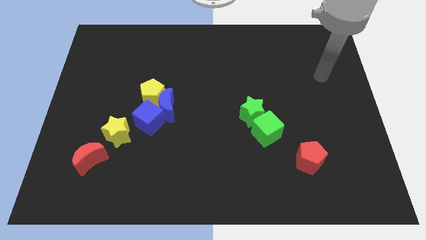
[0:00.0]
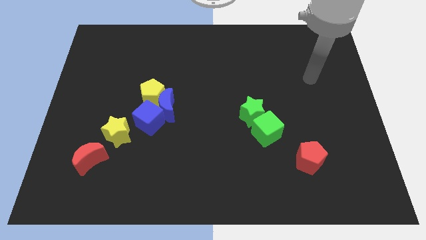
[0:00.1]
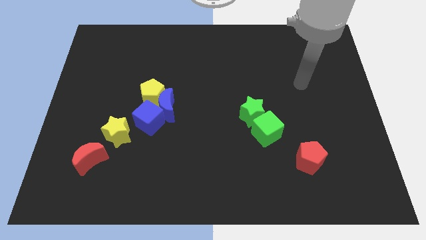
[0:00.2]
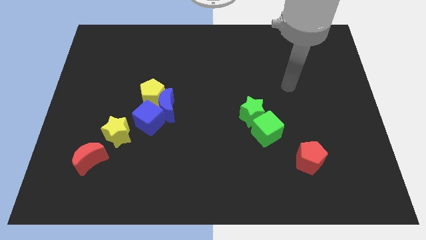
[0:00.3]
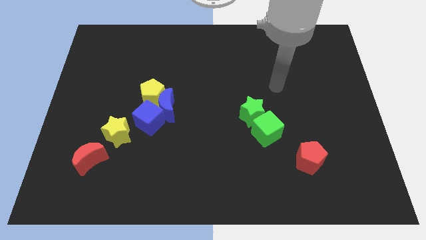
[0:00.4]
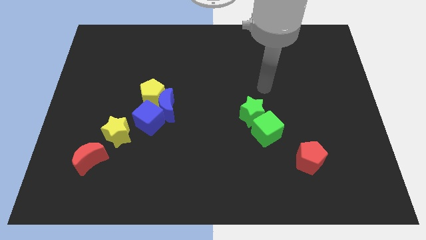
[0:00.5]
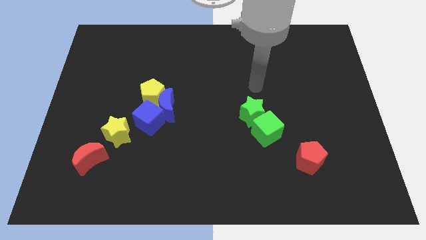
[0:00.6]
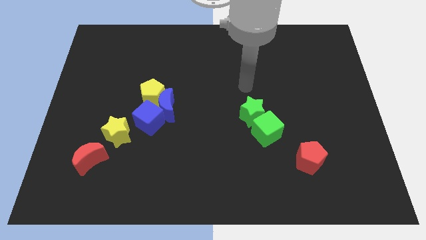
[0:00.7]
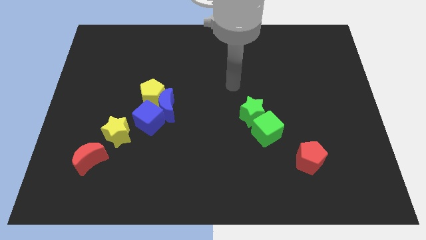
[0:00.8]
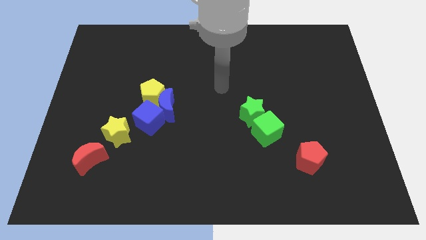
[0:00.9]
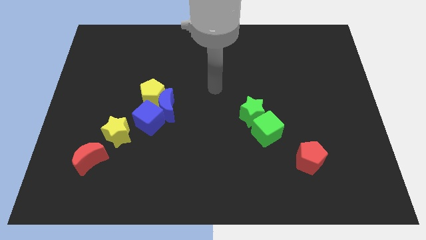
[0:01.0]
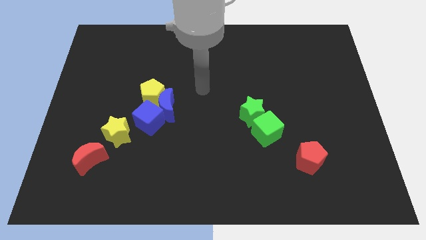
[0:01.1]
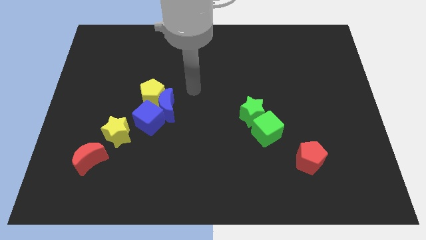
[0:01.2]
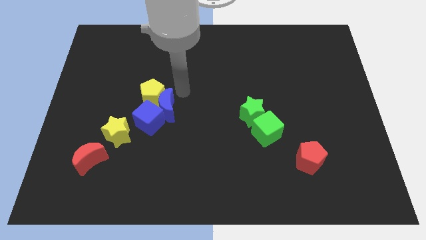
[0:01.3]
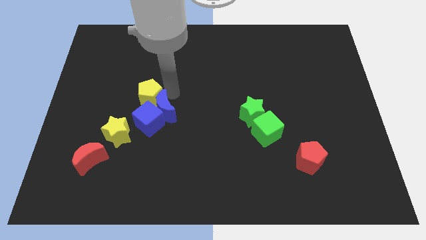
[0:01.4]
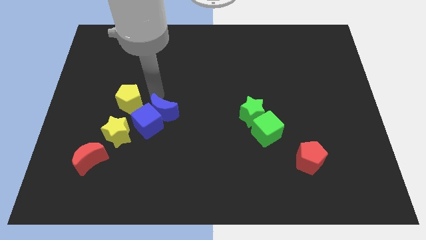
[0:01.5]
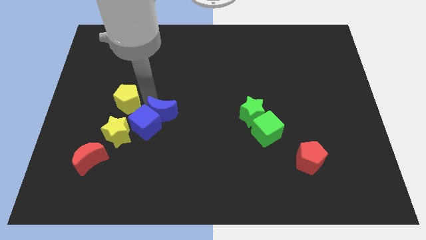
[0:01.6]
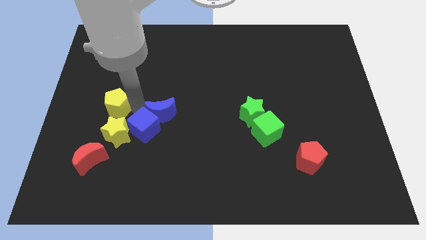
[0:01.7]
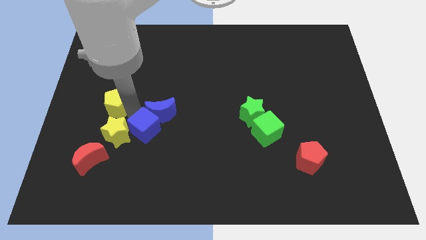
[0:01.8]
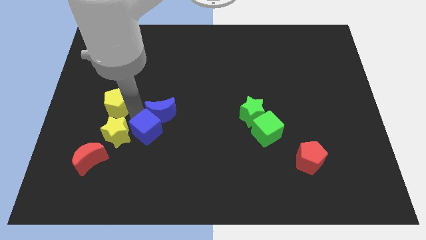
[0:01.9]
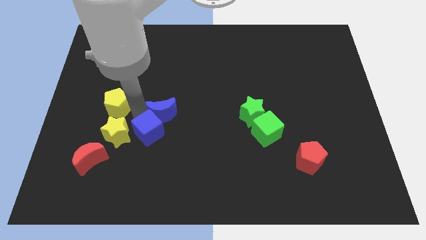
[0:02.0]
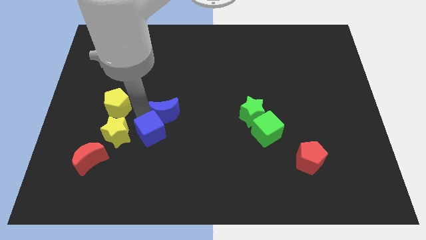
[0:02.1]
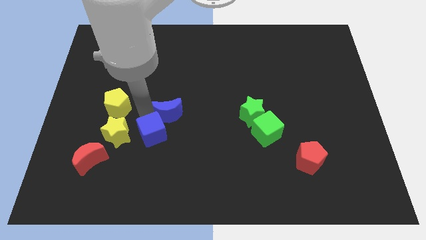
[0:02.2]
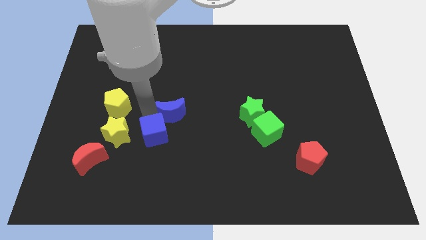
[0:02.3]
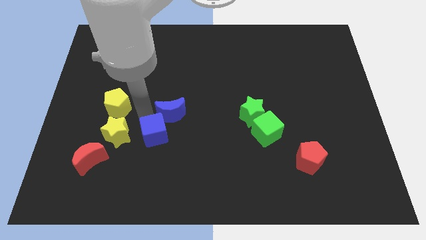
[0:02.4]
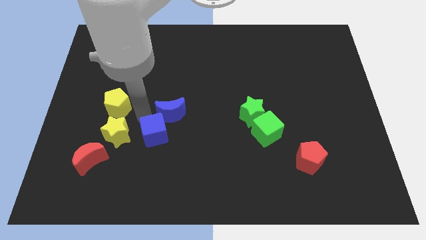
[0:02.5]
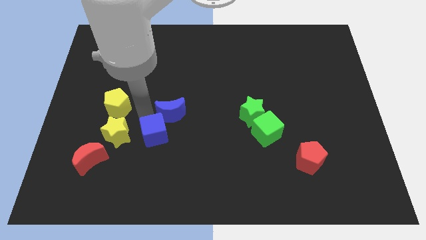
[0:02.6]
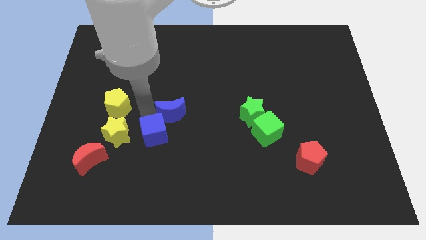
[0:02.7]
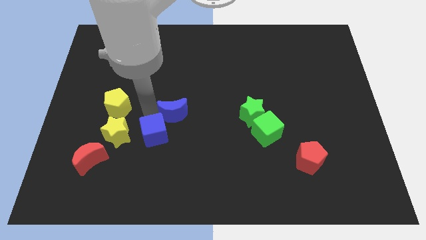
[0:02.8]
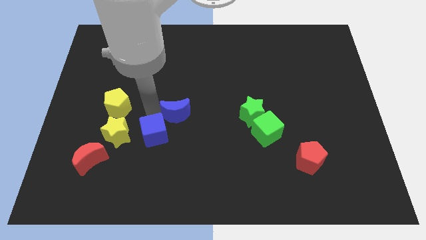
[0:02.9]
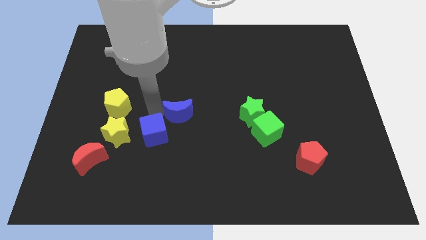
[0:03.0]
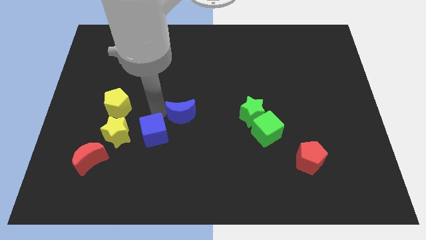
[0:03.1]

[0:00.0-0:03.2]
pull the blue moon apart from the blue cube and yellow pentagon

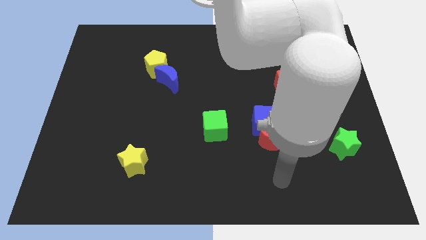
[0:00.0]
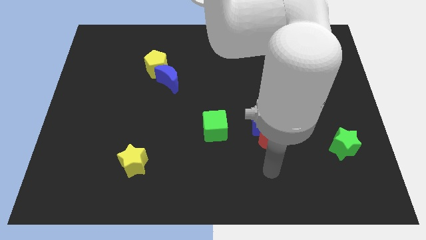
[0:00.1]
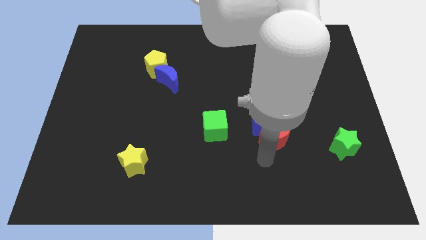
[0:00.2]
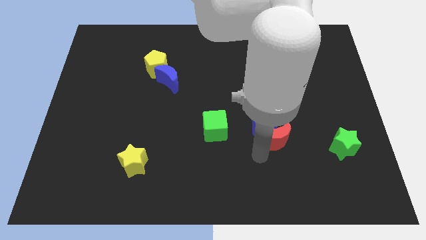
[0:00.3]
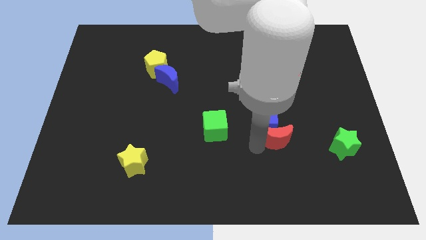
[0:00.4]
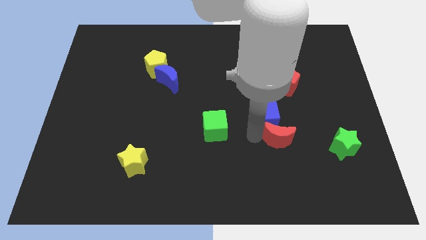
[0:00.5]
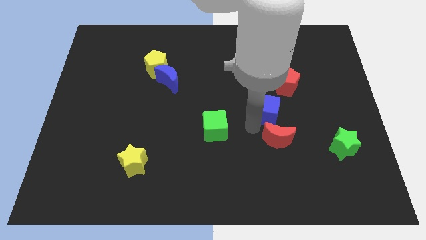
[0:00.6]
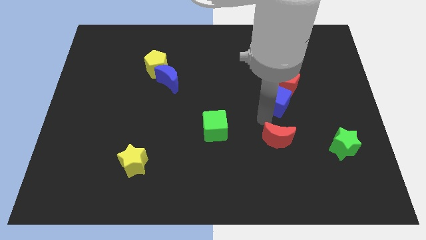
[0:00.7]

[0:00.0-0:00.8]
move the red moon away from the blue cube

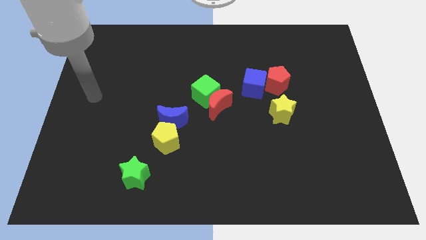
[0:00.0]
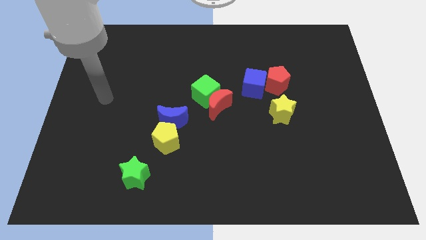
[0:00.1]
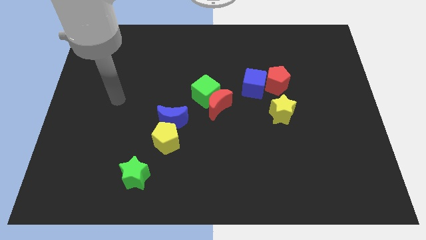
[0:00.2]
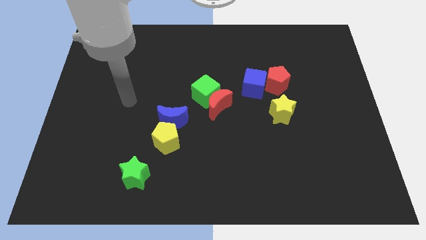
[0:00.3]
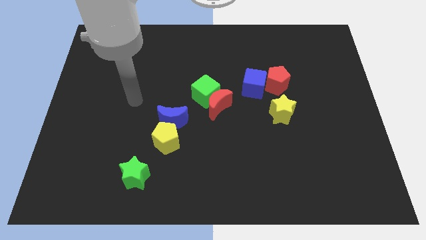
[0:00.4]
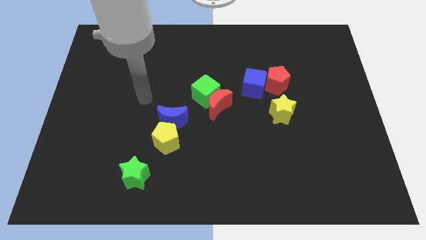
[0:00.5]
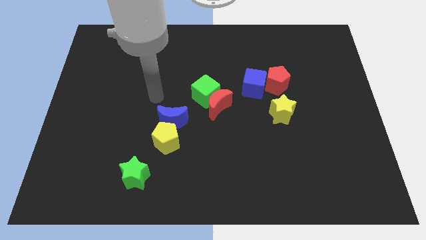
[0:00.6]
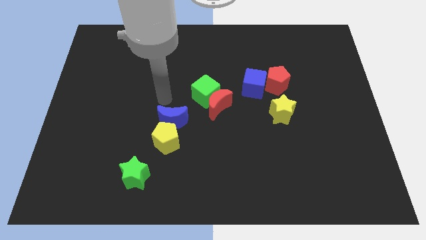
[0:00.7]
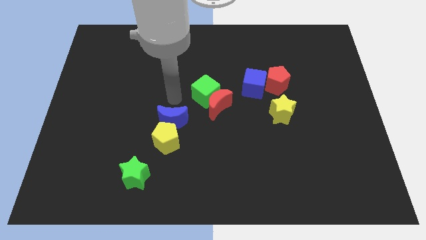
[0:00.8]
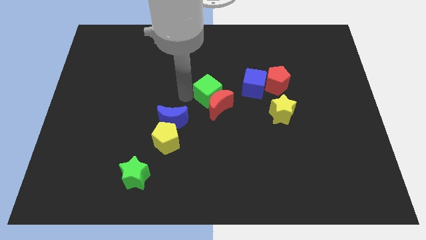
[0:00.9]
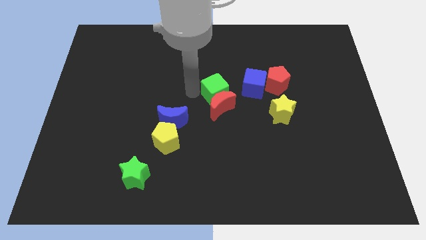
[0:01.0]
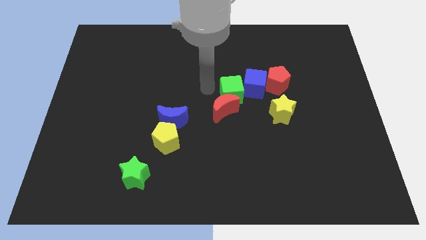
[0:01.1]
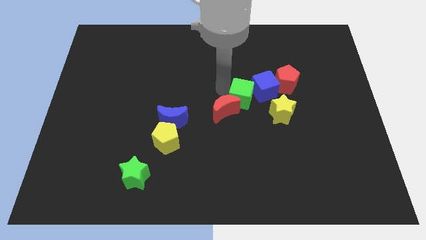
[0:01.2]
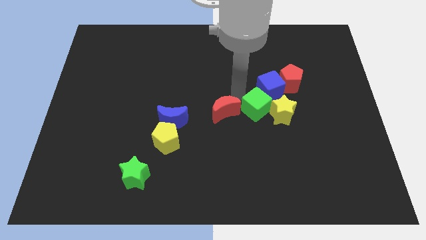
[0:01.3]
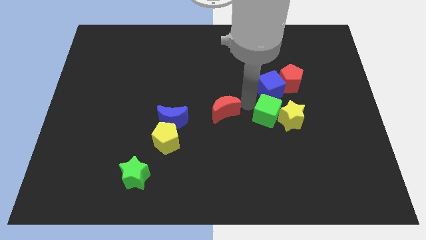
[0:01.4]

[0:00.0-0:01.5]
separate the red moon from the green cube

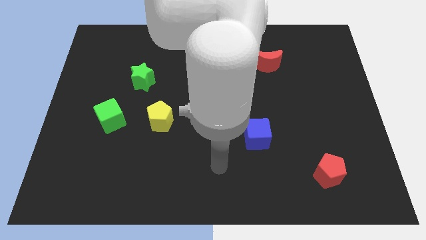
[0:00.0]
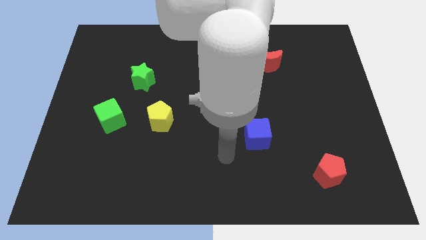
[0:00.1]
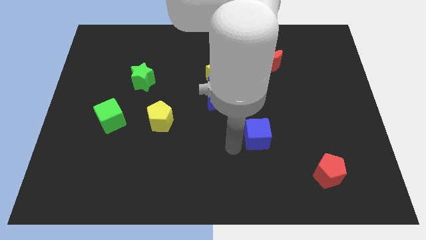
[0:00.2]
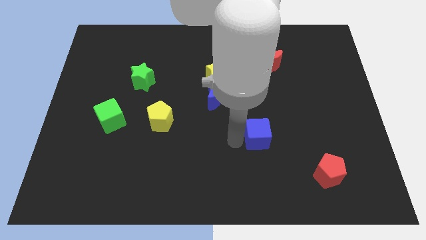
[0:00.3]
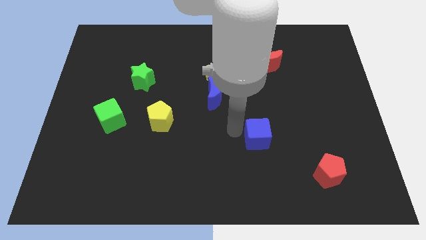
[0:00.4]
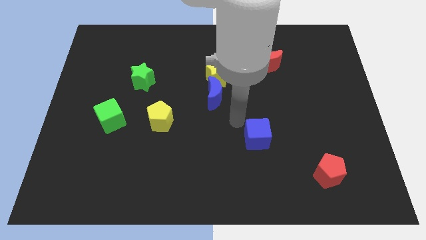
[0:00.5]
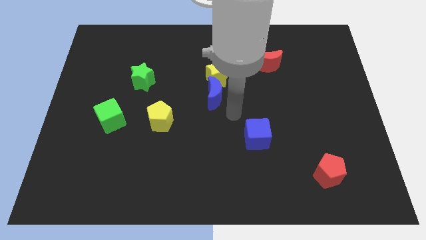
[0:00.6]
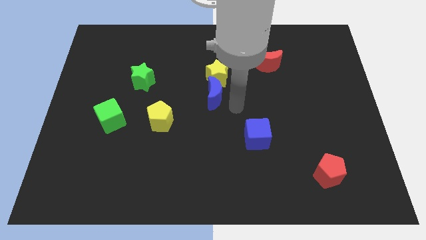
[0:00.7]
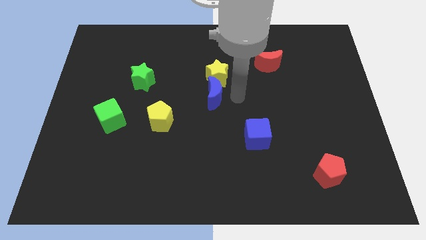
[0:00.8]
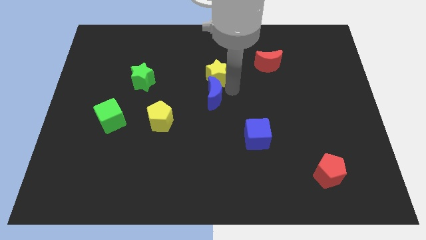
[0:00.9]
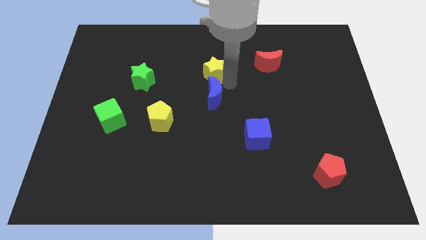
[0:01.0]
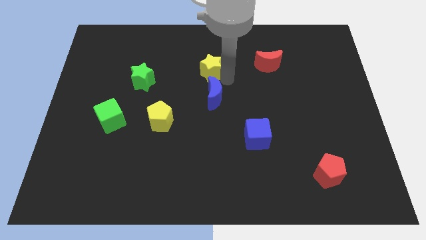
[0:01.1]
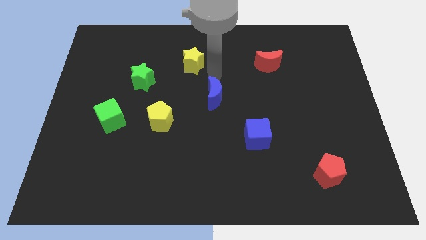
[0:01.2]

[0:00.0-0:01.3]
move the blue moon away from the yellow star

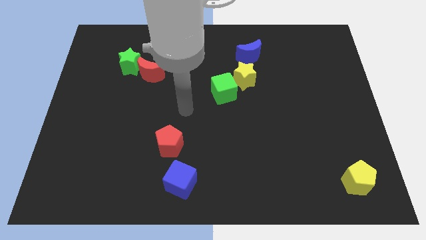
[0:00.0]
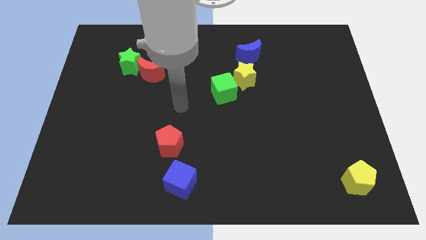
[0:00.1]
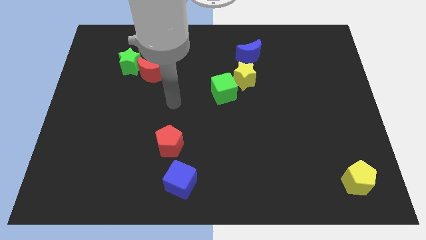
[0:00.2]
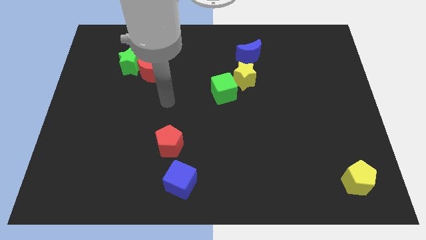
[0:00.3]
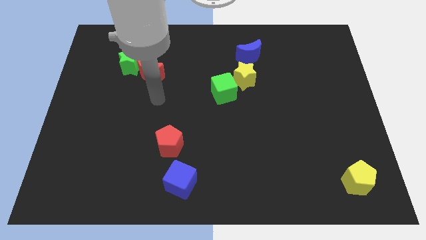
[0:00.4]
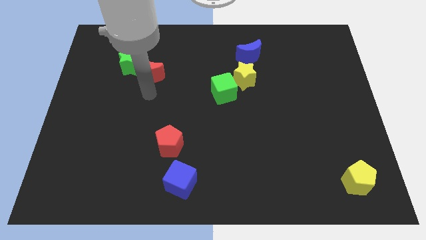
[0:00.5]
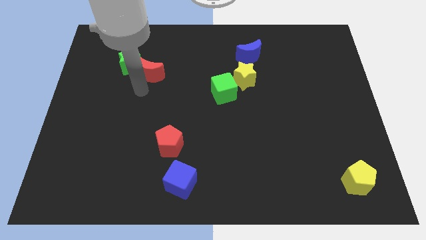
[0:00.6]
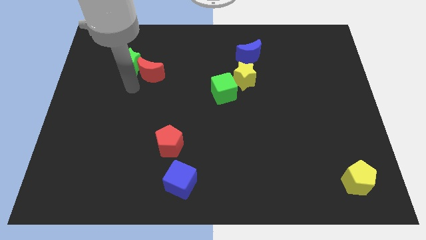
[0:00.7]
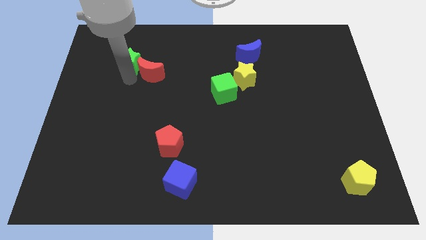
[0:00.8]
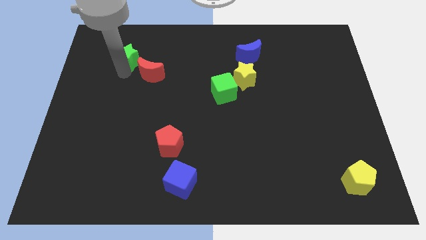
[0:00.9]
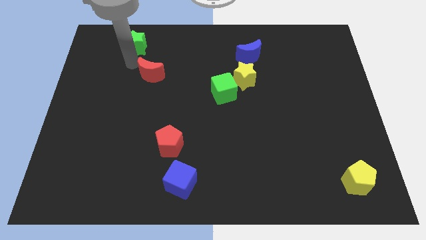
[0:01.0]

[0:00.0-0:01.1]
pull the red moon apart from the green star

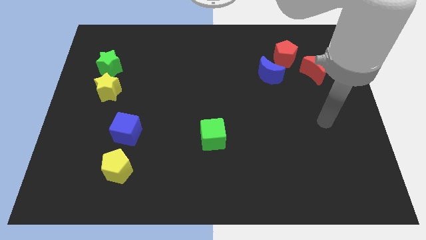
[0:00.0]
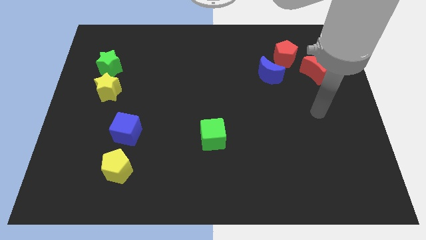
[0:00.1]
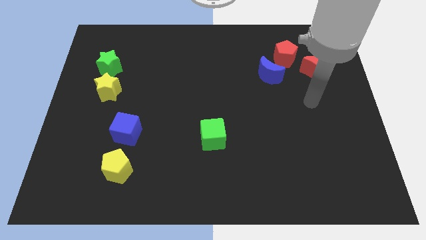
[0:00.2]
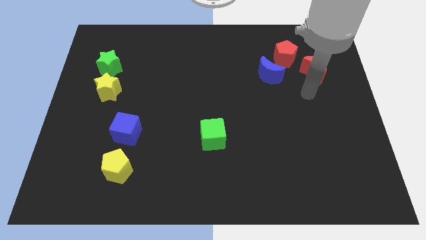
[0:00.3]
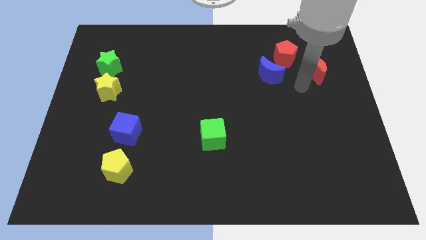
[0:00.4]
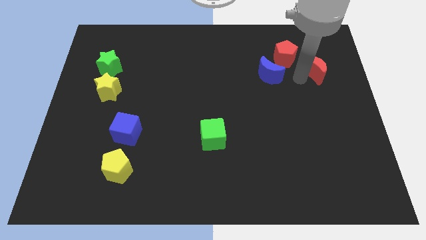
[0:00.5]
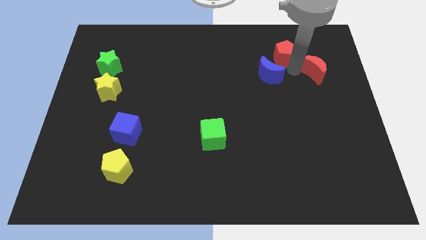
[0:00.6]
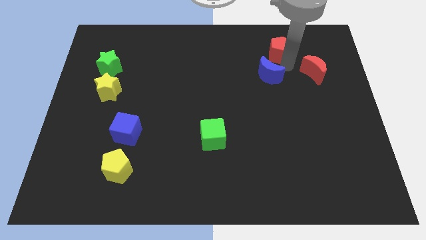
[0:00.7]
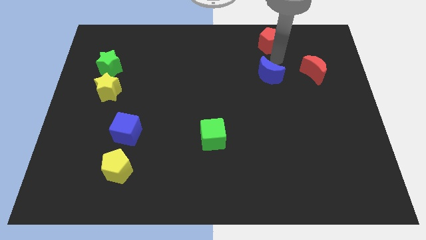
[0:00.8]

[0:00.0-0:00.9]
move the blue moon away from the red pentagon

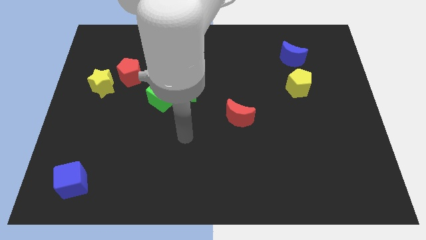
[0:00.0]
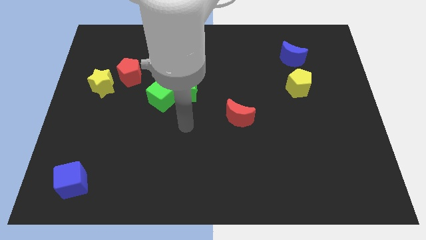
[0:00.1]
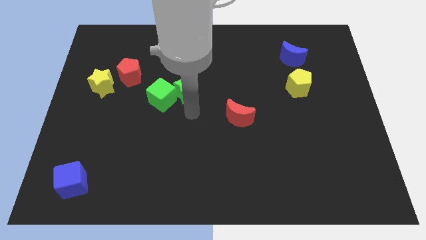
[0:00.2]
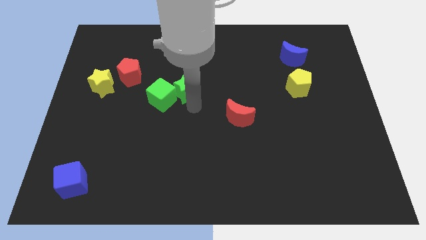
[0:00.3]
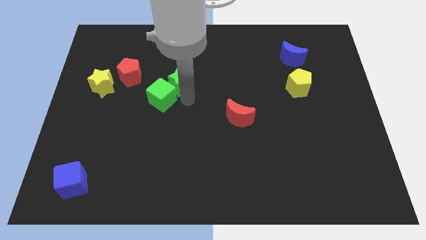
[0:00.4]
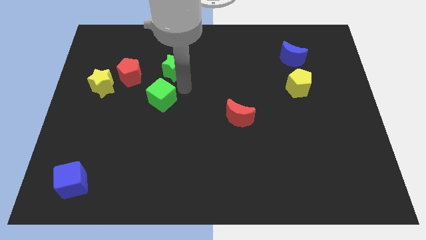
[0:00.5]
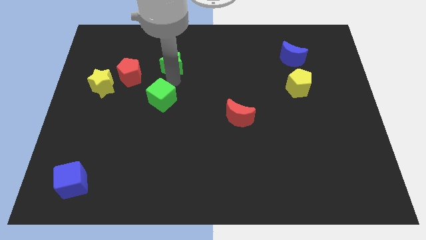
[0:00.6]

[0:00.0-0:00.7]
separate the green cube from the green star

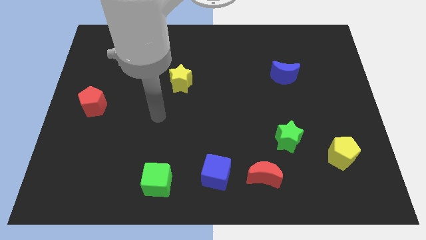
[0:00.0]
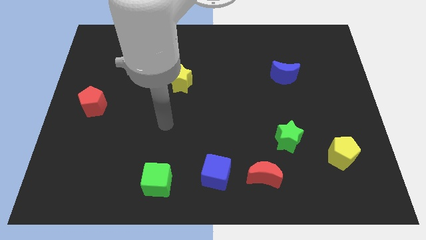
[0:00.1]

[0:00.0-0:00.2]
separate the red moon from the blue cube
